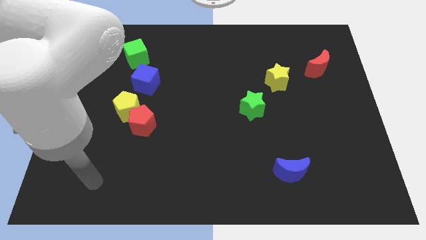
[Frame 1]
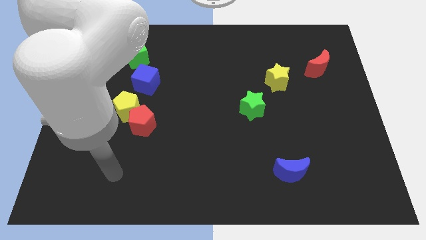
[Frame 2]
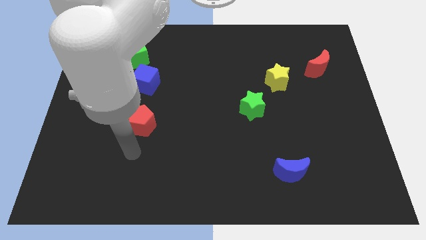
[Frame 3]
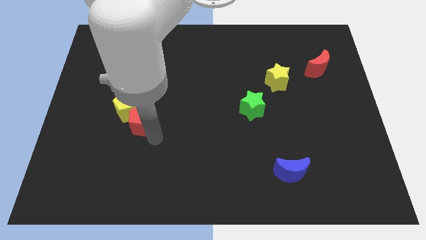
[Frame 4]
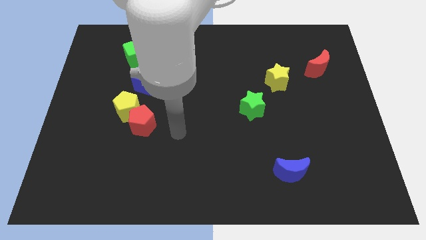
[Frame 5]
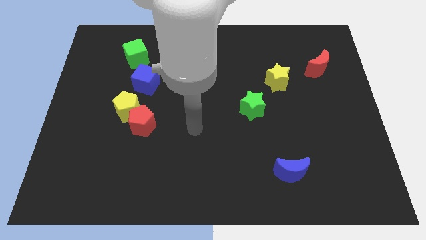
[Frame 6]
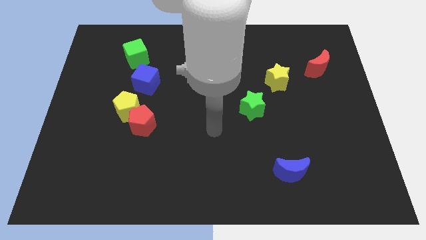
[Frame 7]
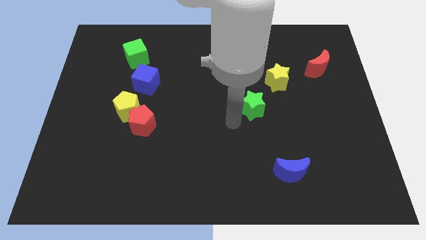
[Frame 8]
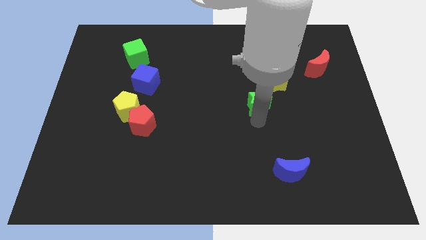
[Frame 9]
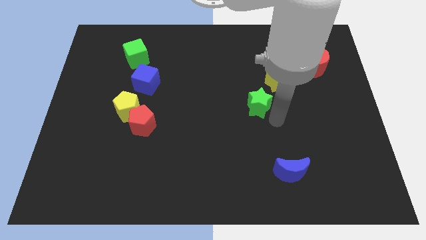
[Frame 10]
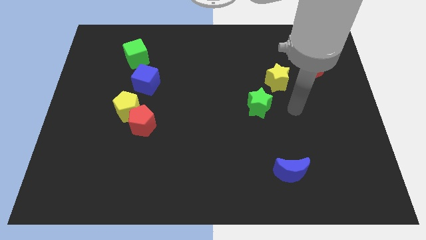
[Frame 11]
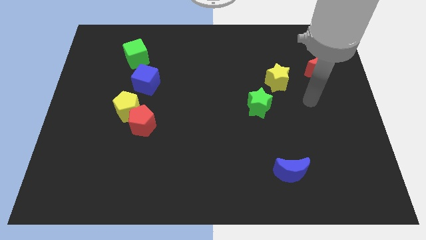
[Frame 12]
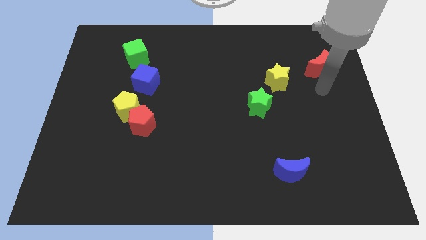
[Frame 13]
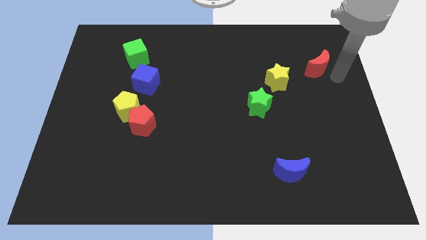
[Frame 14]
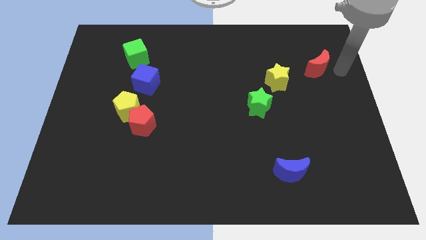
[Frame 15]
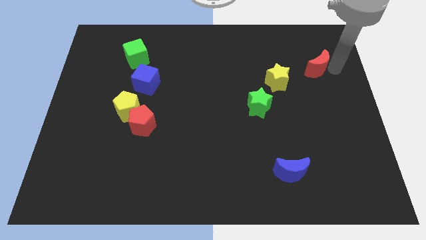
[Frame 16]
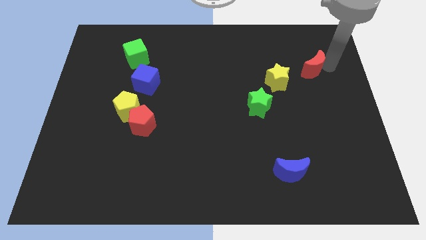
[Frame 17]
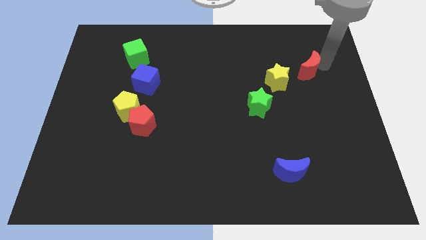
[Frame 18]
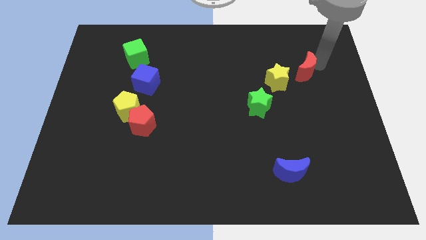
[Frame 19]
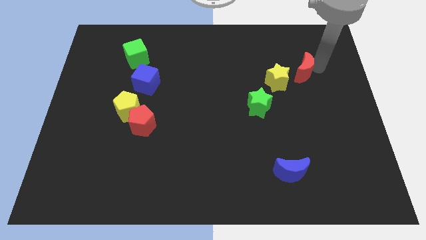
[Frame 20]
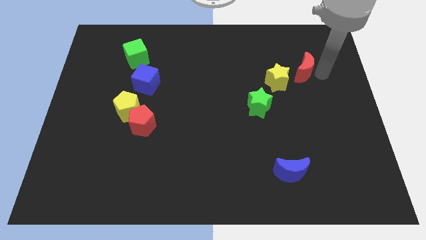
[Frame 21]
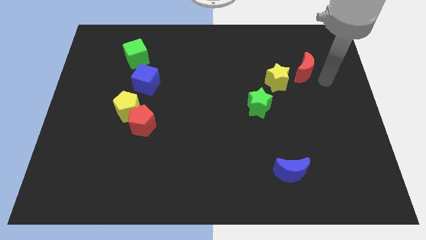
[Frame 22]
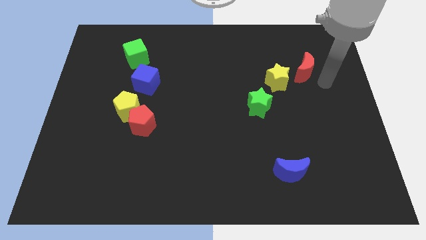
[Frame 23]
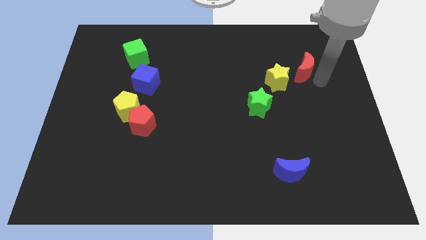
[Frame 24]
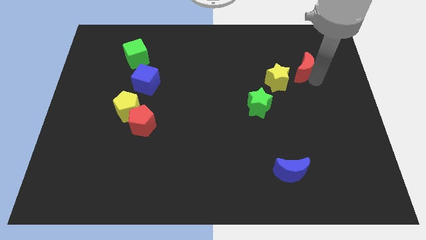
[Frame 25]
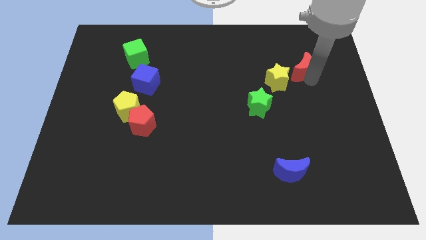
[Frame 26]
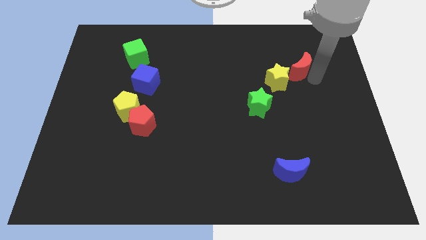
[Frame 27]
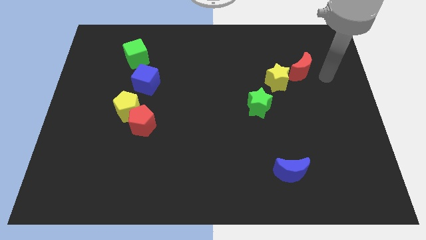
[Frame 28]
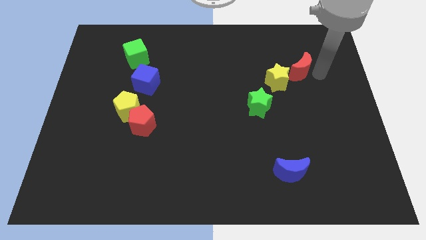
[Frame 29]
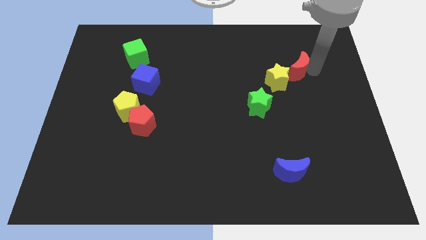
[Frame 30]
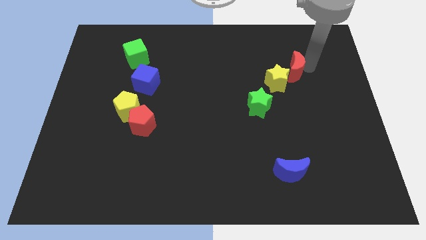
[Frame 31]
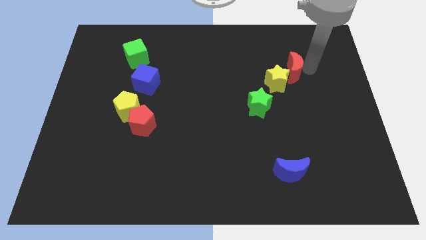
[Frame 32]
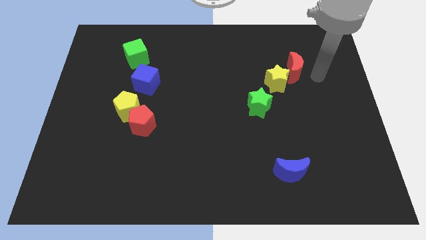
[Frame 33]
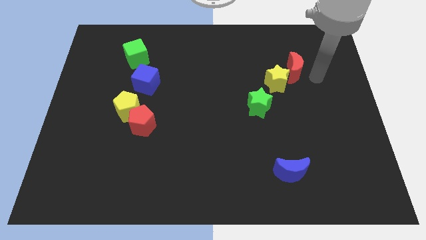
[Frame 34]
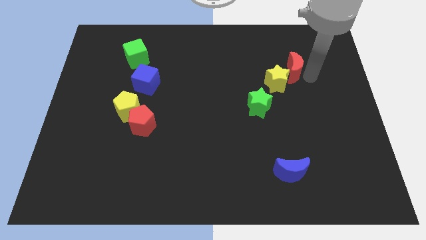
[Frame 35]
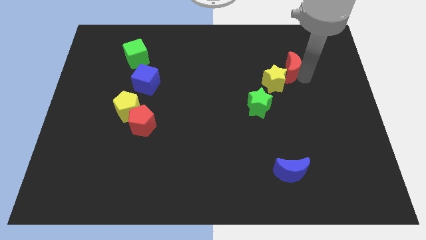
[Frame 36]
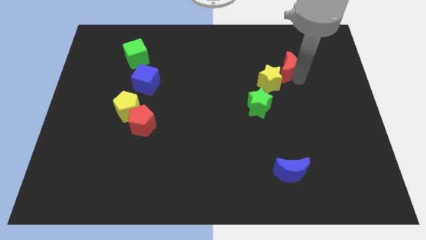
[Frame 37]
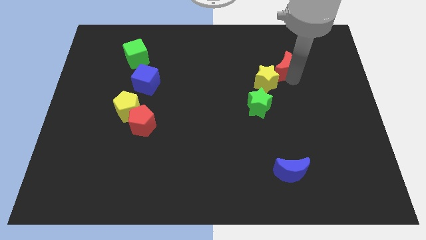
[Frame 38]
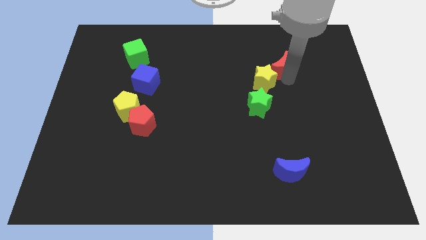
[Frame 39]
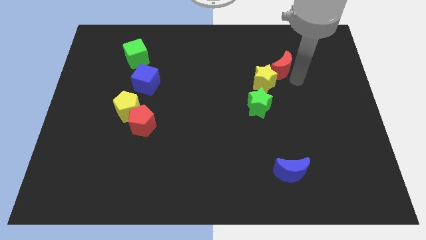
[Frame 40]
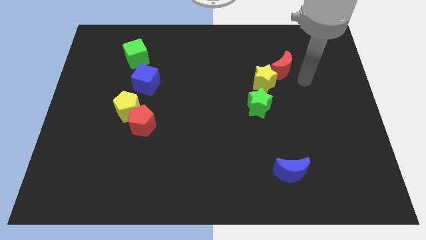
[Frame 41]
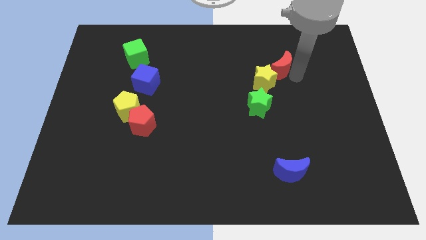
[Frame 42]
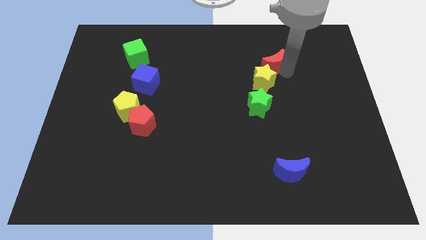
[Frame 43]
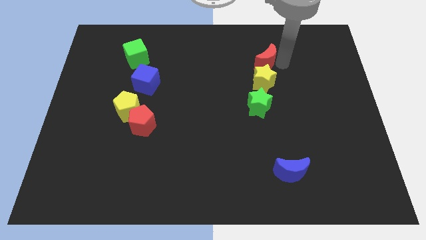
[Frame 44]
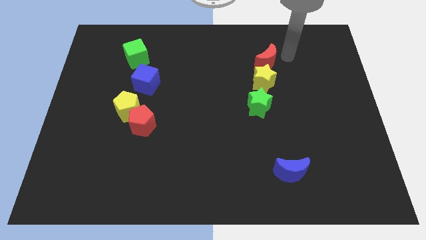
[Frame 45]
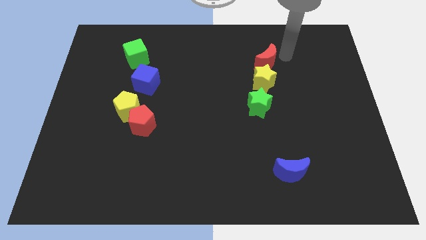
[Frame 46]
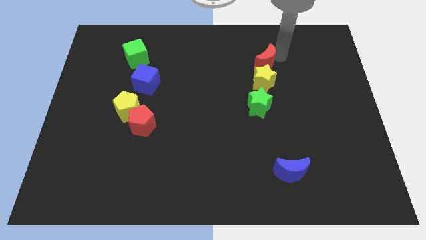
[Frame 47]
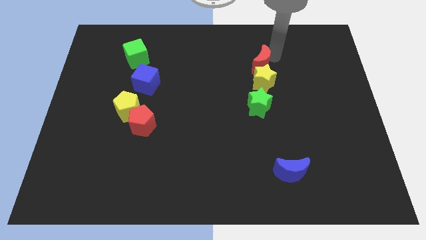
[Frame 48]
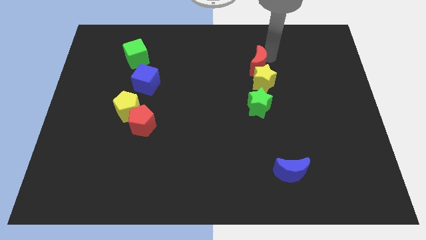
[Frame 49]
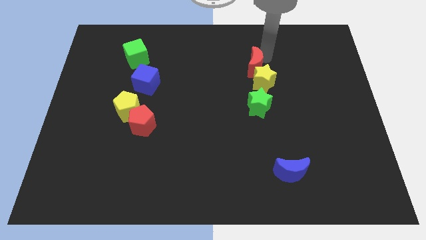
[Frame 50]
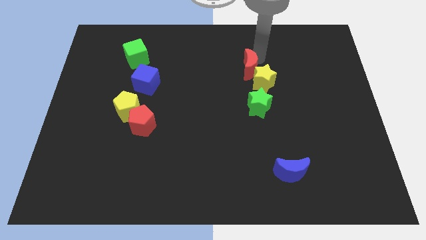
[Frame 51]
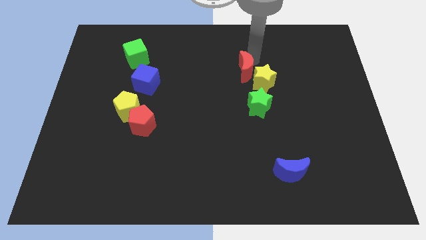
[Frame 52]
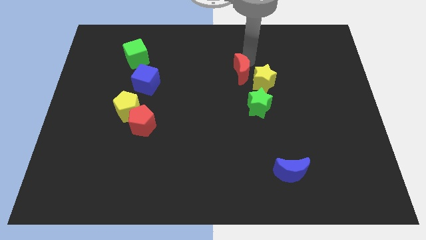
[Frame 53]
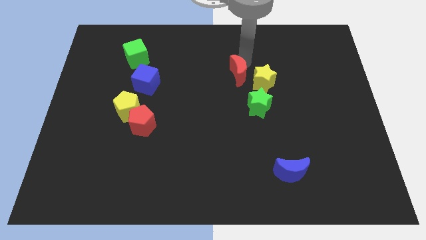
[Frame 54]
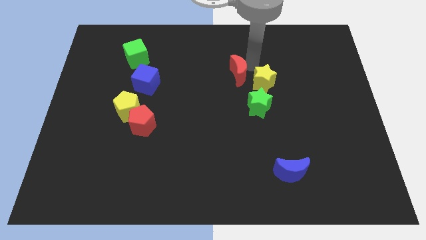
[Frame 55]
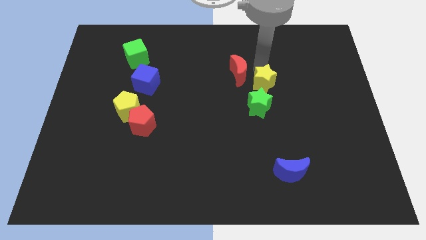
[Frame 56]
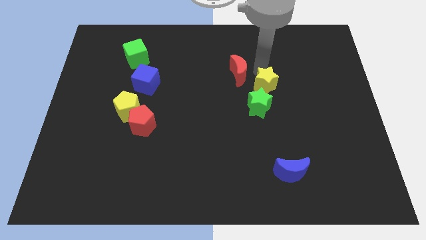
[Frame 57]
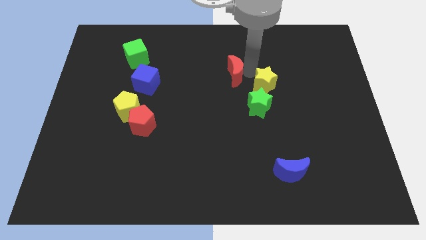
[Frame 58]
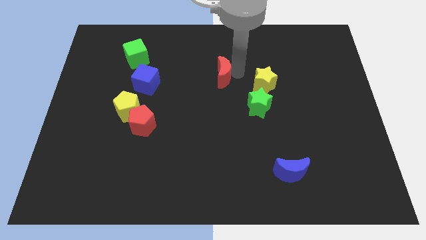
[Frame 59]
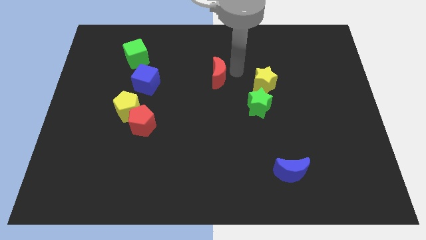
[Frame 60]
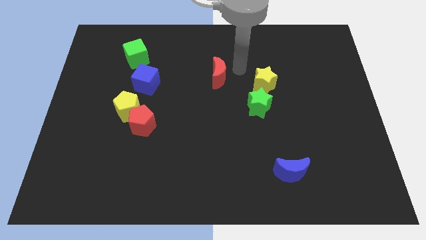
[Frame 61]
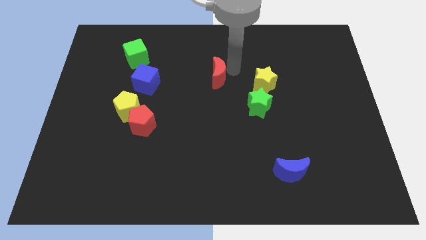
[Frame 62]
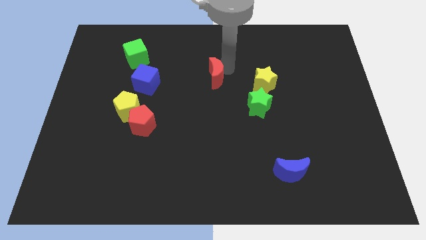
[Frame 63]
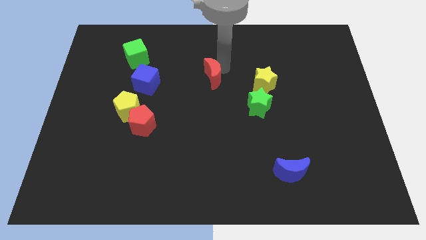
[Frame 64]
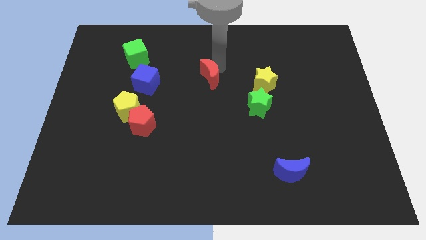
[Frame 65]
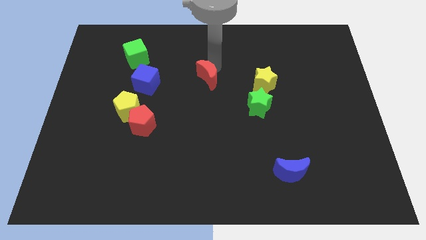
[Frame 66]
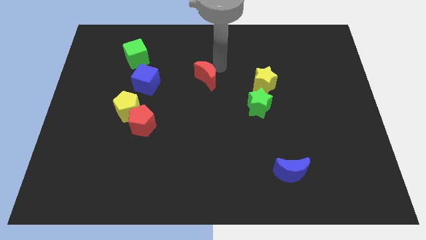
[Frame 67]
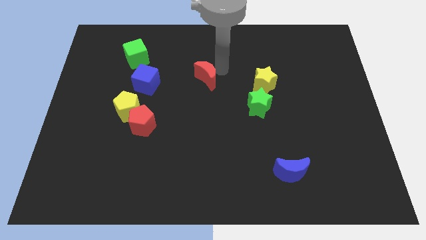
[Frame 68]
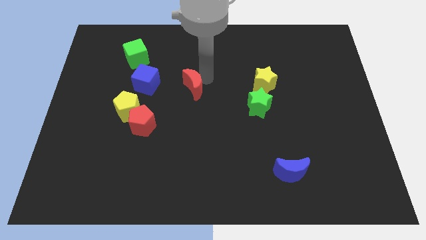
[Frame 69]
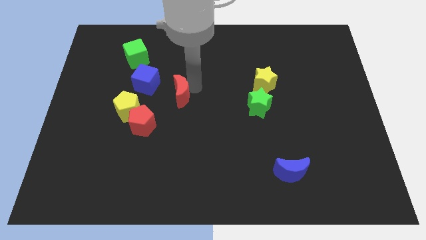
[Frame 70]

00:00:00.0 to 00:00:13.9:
put the red moon diagonally down and to the right of the blue cube
